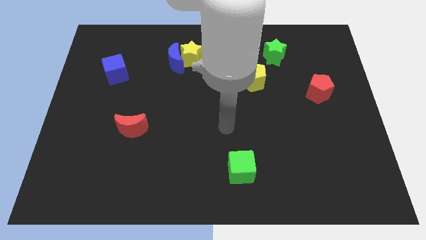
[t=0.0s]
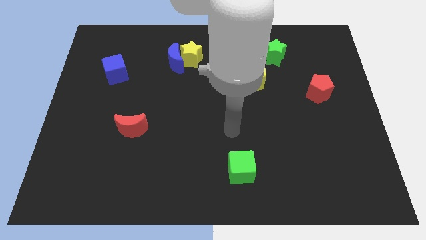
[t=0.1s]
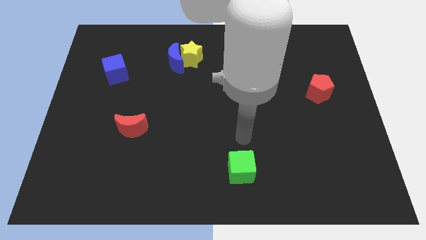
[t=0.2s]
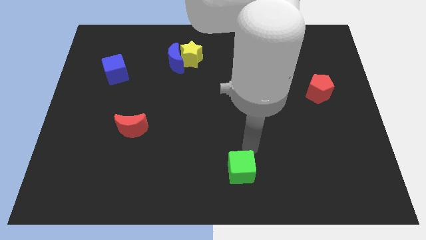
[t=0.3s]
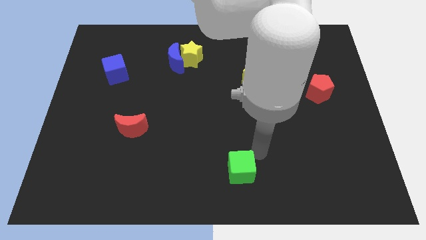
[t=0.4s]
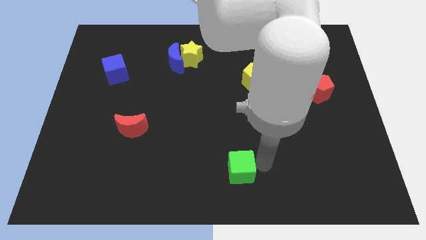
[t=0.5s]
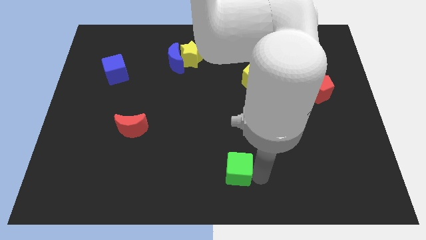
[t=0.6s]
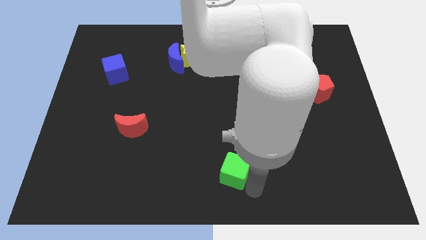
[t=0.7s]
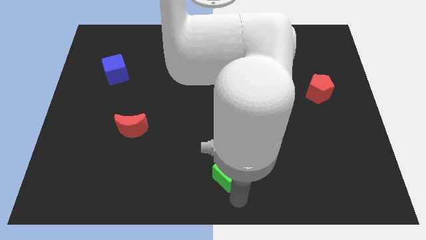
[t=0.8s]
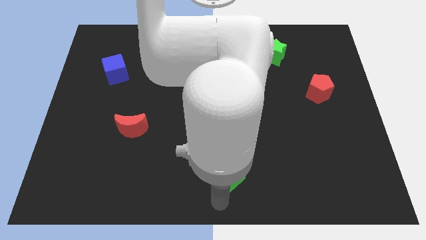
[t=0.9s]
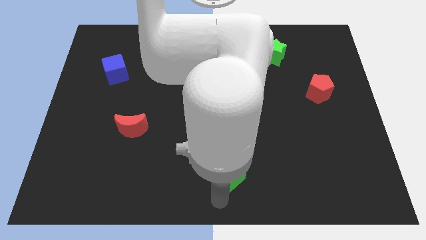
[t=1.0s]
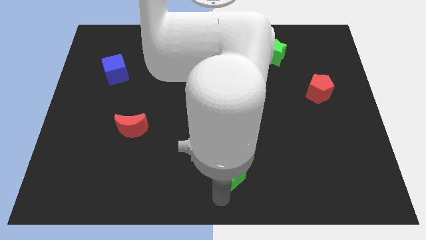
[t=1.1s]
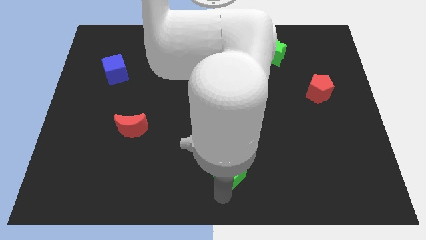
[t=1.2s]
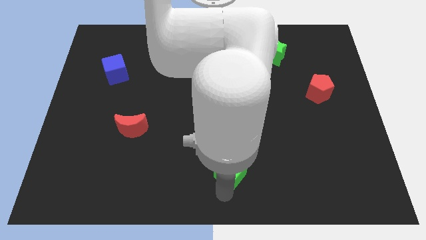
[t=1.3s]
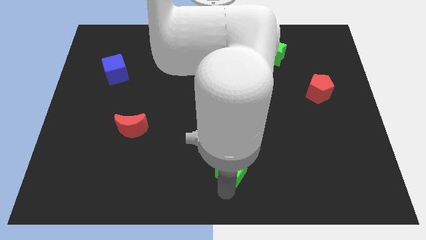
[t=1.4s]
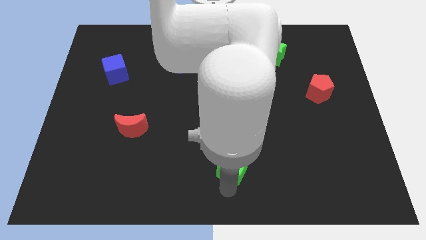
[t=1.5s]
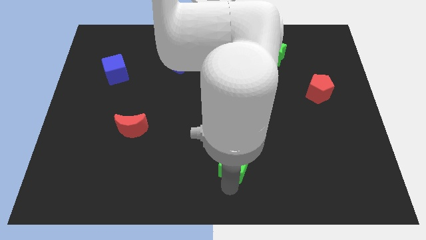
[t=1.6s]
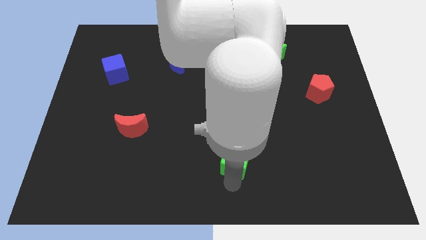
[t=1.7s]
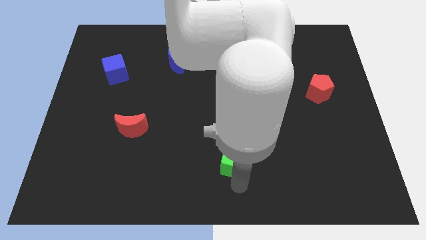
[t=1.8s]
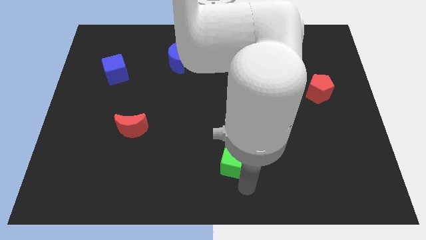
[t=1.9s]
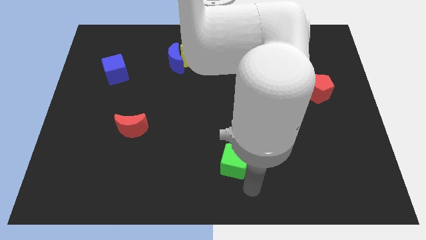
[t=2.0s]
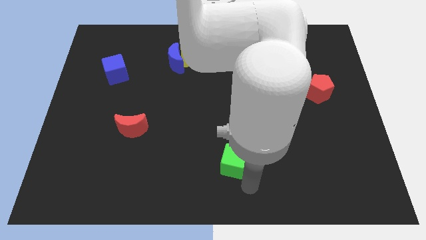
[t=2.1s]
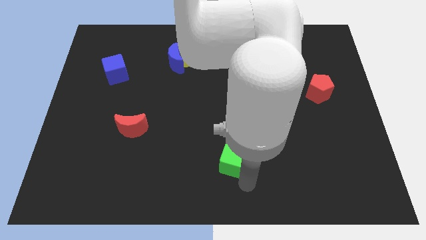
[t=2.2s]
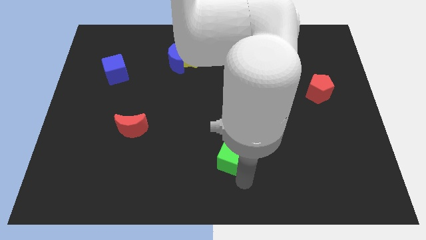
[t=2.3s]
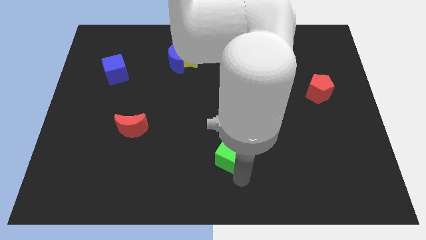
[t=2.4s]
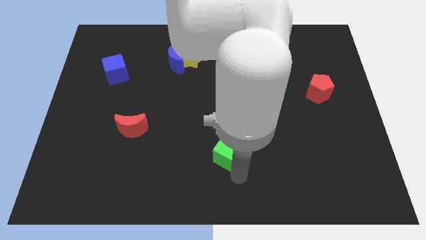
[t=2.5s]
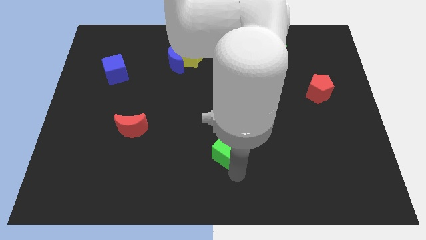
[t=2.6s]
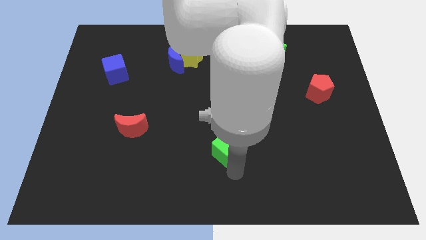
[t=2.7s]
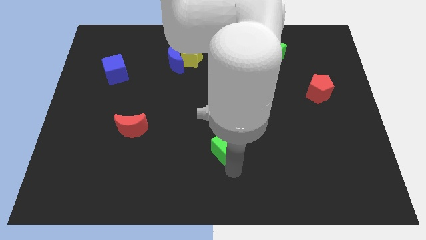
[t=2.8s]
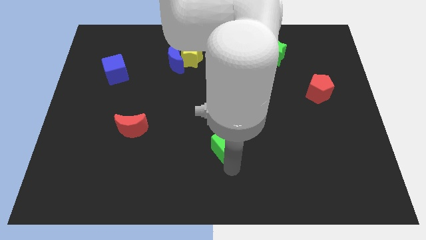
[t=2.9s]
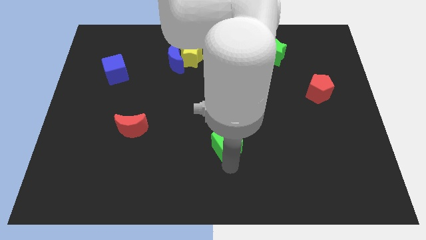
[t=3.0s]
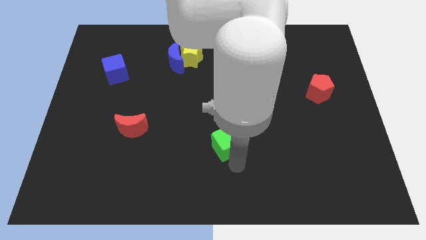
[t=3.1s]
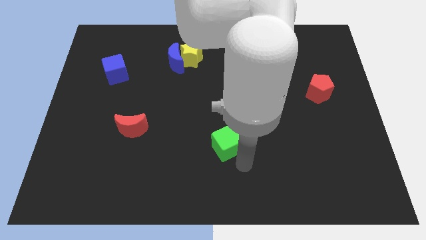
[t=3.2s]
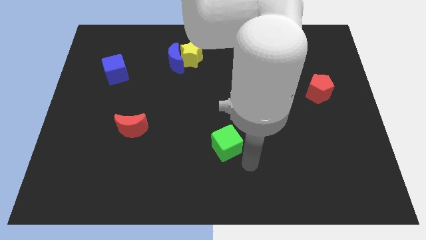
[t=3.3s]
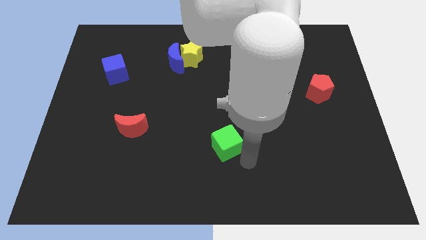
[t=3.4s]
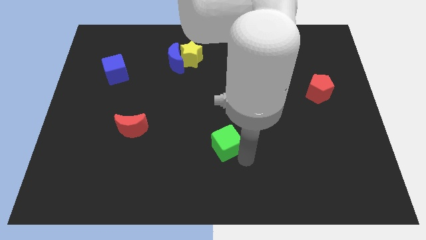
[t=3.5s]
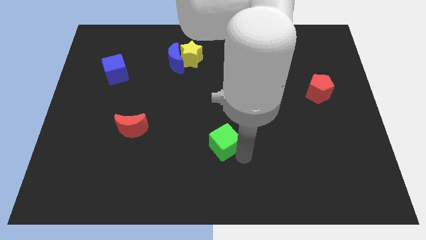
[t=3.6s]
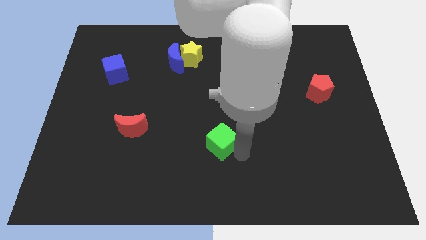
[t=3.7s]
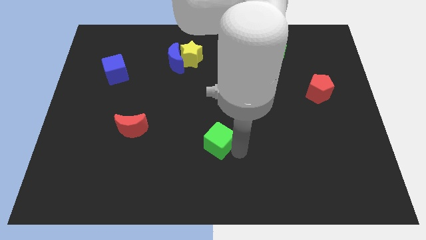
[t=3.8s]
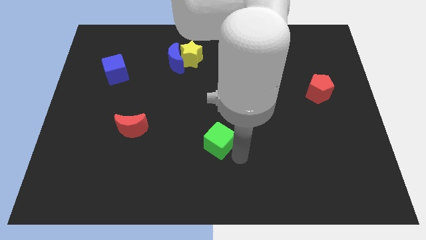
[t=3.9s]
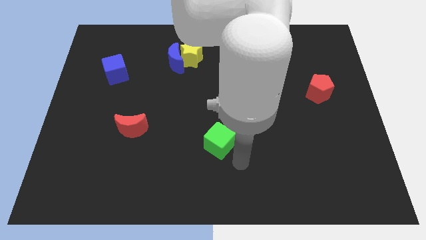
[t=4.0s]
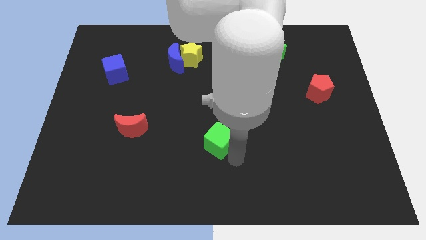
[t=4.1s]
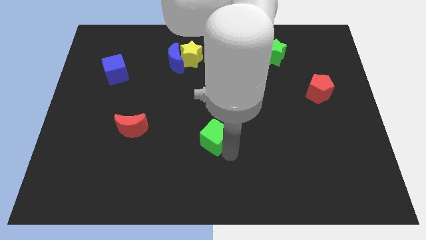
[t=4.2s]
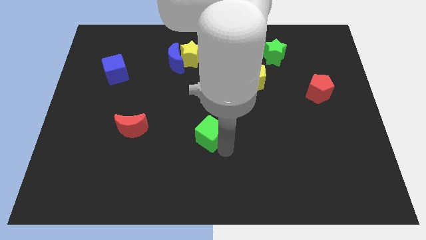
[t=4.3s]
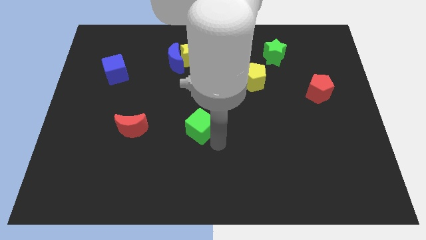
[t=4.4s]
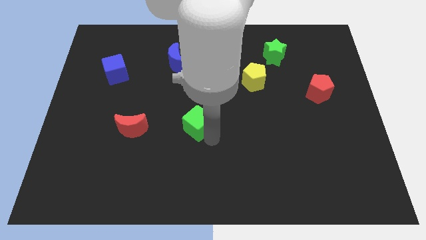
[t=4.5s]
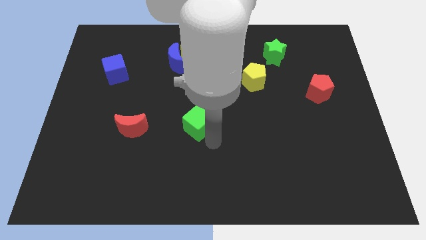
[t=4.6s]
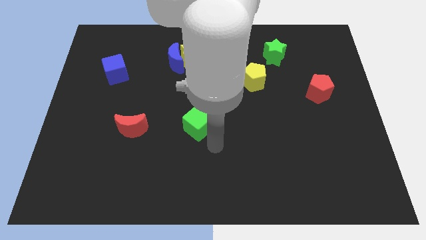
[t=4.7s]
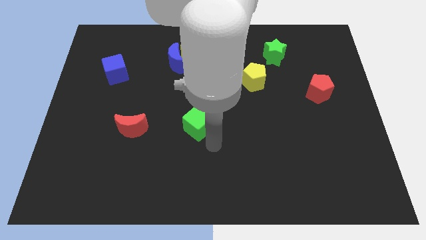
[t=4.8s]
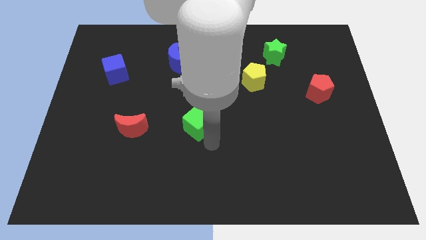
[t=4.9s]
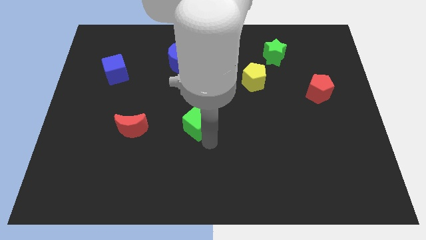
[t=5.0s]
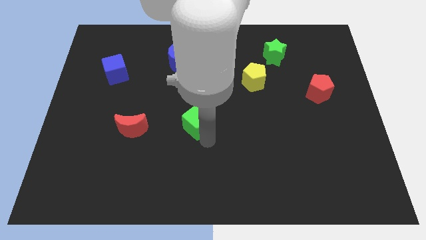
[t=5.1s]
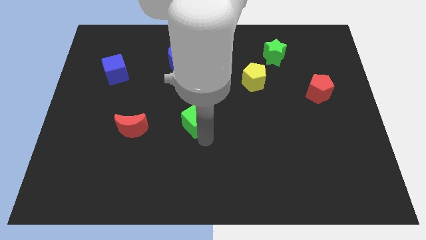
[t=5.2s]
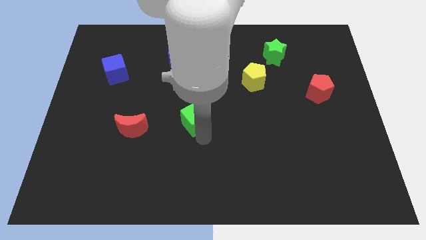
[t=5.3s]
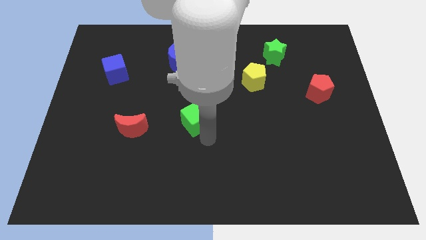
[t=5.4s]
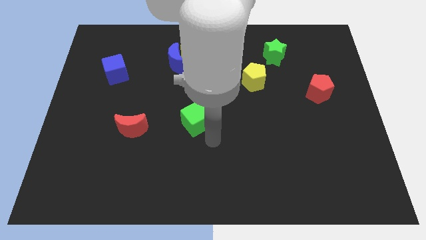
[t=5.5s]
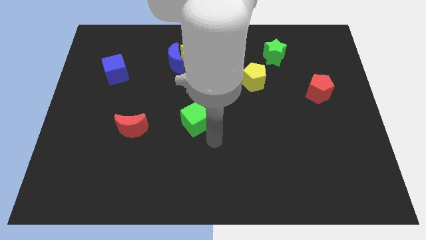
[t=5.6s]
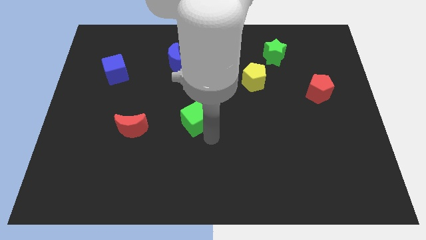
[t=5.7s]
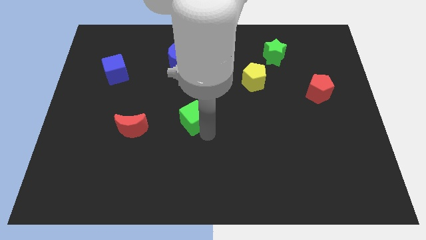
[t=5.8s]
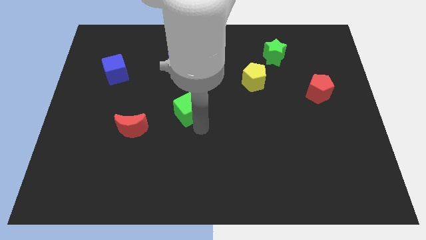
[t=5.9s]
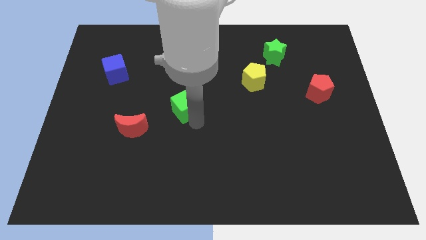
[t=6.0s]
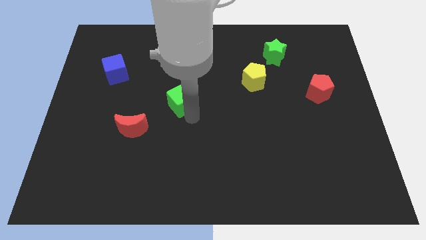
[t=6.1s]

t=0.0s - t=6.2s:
slide the green cube below the blue moon

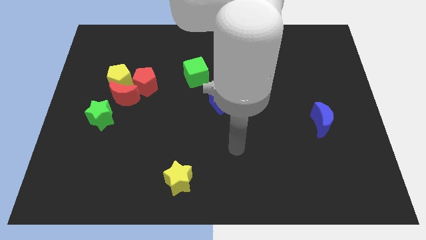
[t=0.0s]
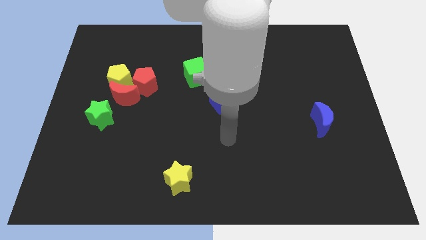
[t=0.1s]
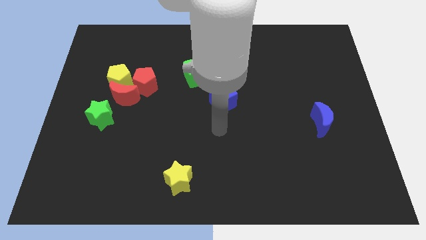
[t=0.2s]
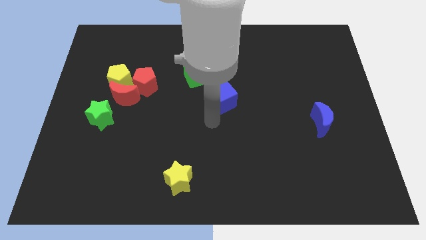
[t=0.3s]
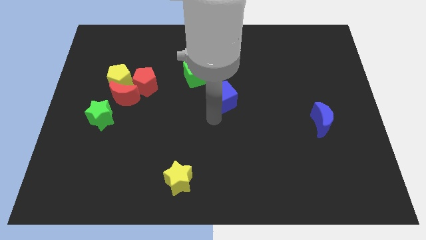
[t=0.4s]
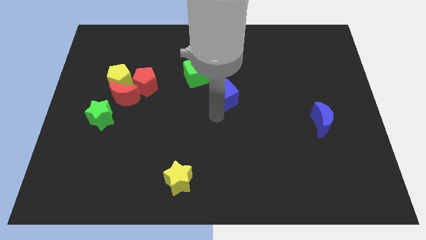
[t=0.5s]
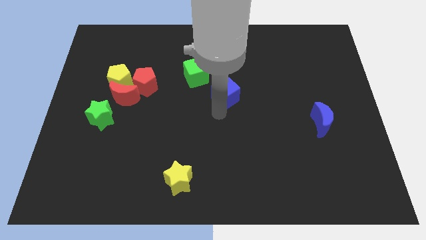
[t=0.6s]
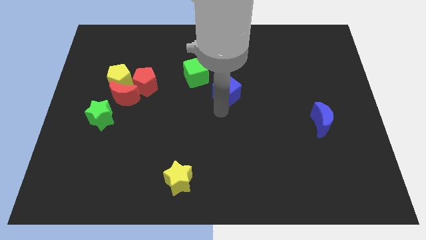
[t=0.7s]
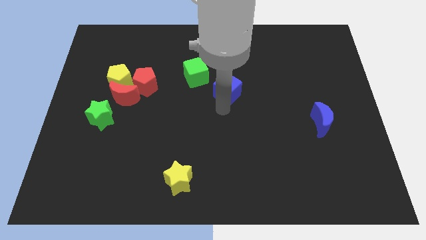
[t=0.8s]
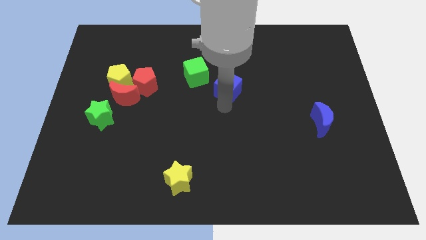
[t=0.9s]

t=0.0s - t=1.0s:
move the blue cube to the right of the green cube
